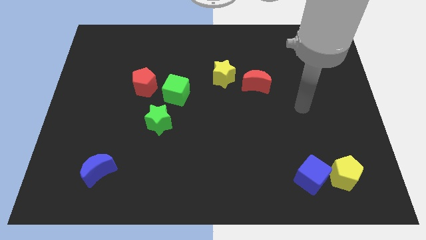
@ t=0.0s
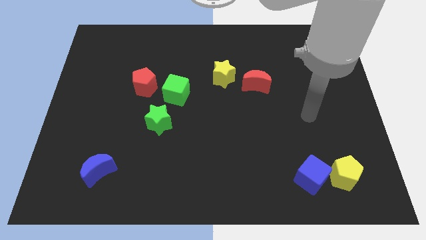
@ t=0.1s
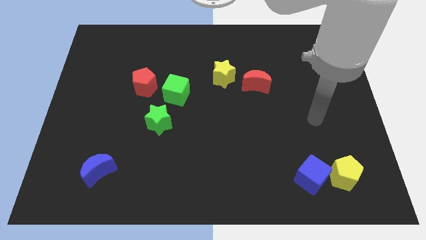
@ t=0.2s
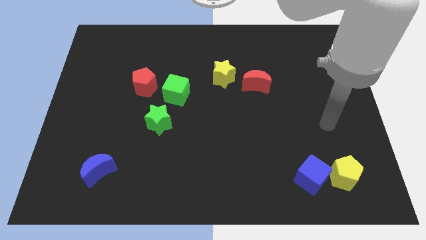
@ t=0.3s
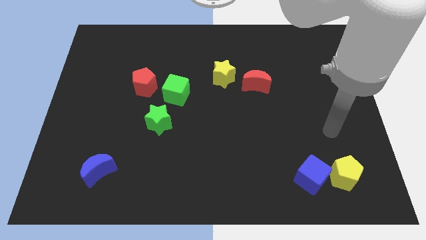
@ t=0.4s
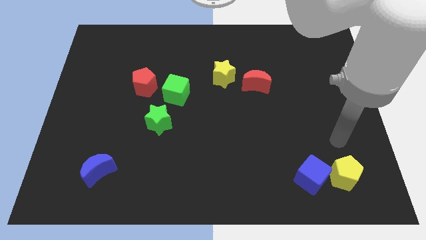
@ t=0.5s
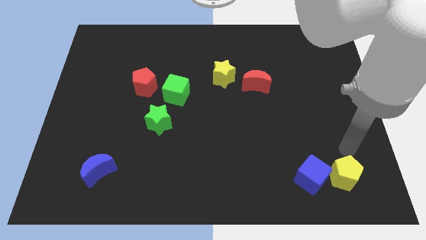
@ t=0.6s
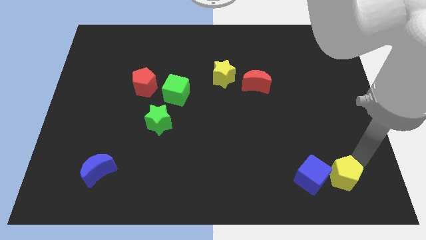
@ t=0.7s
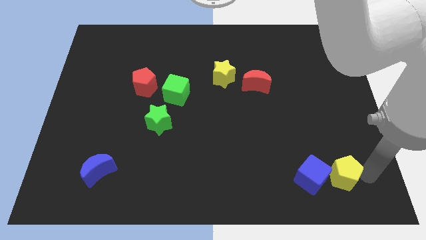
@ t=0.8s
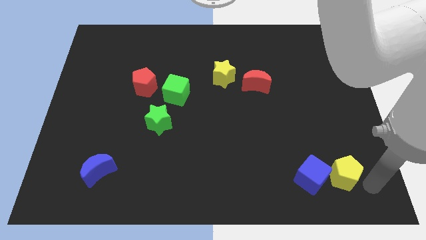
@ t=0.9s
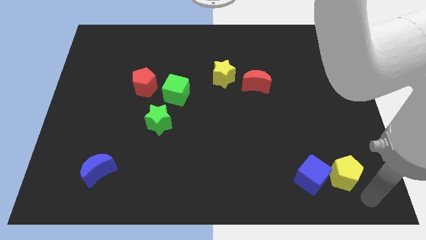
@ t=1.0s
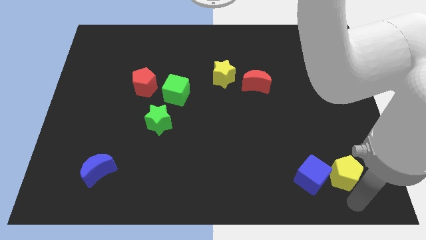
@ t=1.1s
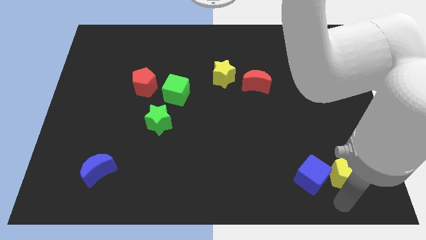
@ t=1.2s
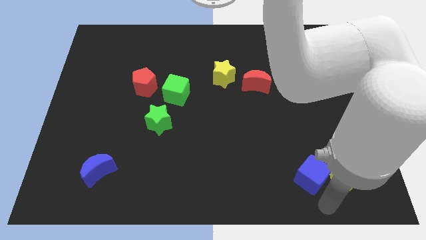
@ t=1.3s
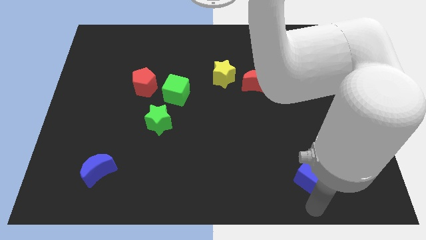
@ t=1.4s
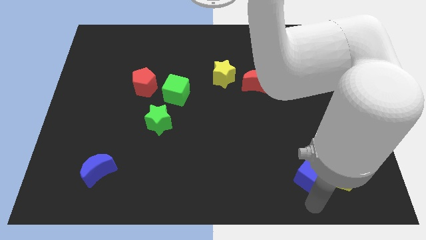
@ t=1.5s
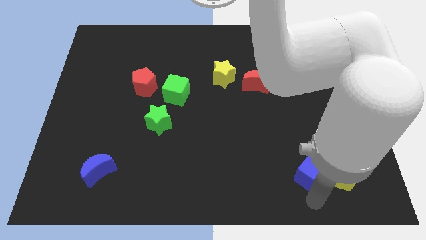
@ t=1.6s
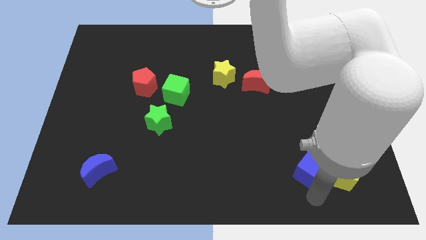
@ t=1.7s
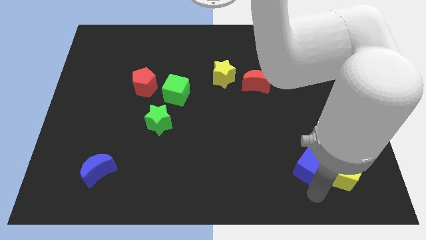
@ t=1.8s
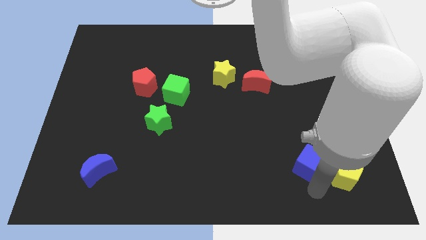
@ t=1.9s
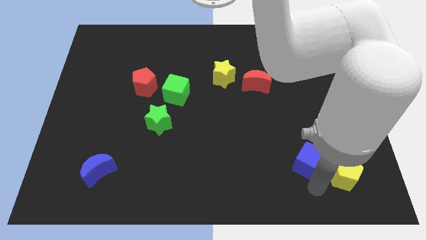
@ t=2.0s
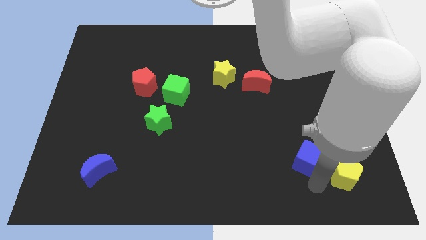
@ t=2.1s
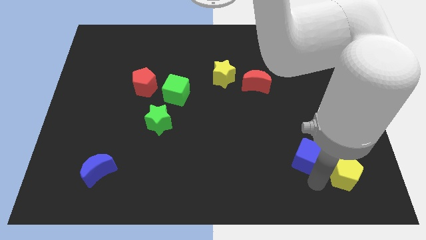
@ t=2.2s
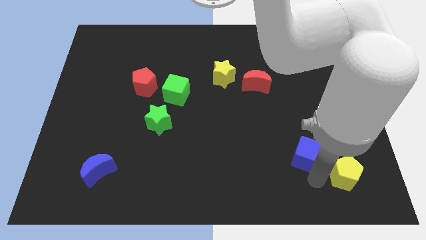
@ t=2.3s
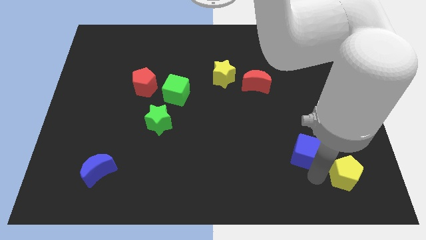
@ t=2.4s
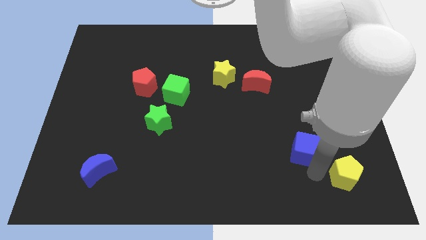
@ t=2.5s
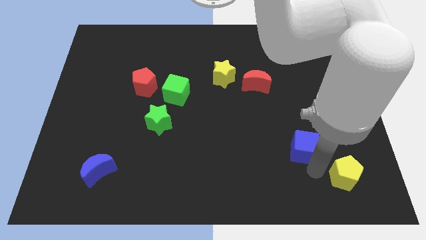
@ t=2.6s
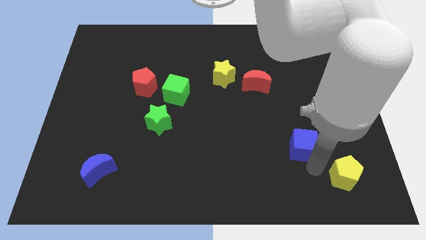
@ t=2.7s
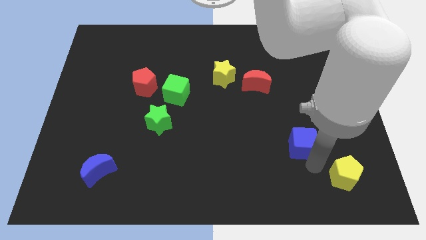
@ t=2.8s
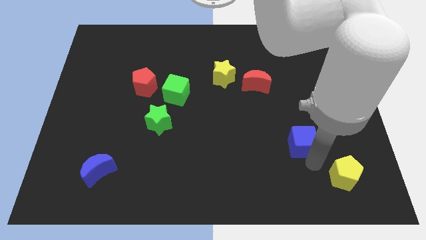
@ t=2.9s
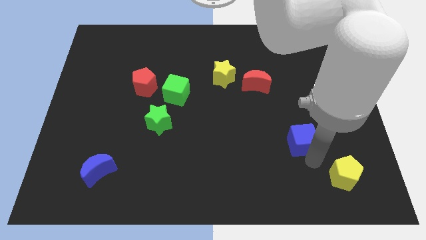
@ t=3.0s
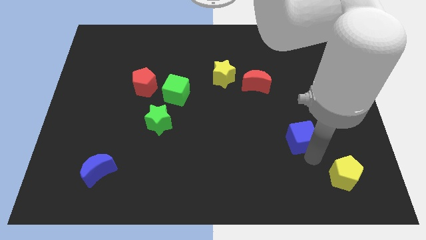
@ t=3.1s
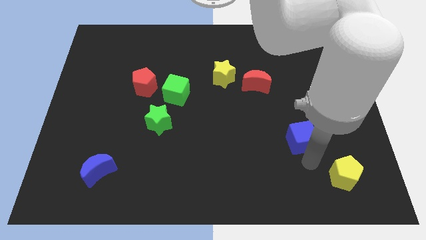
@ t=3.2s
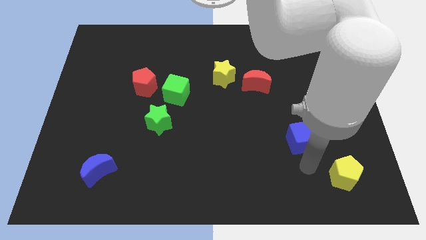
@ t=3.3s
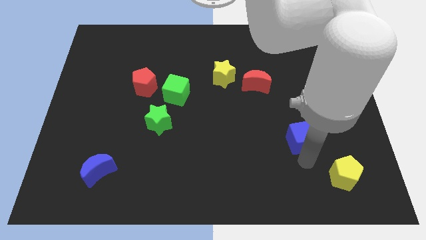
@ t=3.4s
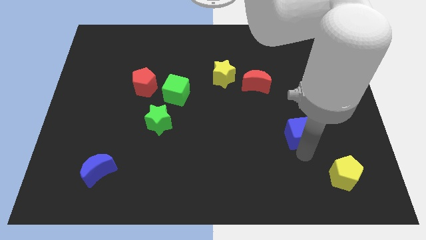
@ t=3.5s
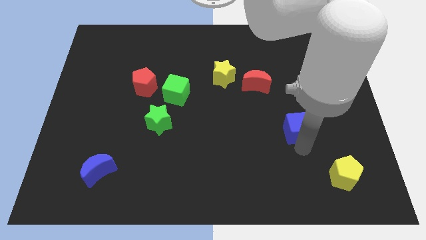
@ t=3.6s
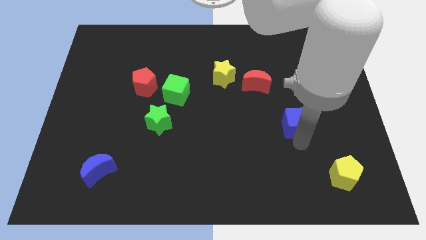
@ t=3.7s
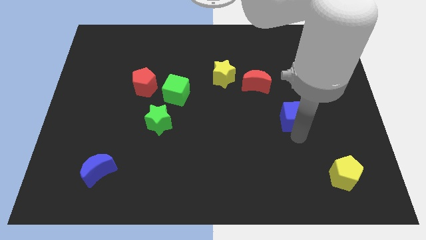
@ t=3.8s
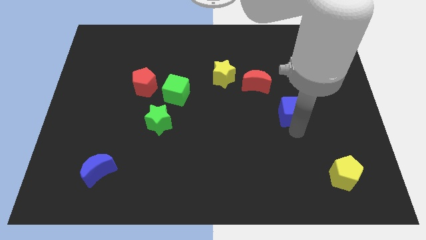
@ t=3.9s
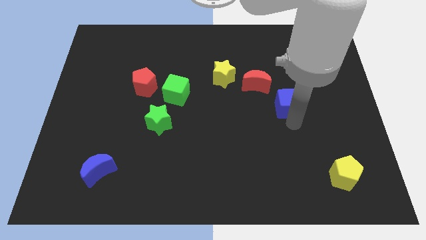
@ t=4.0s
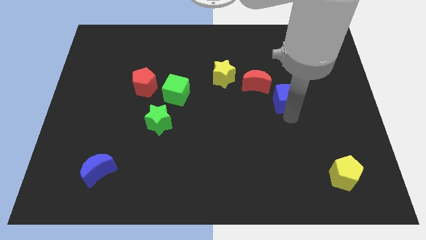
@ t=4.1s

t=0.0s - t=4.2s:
push the blue cube upwards

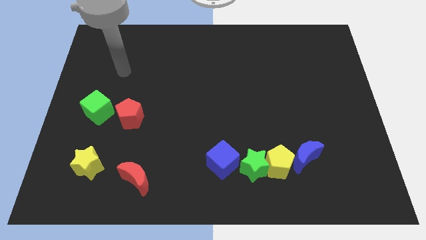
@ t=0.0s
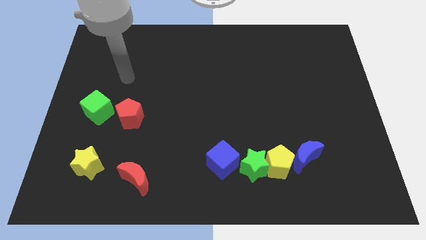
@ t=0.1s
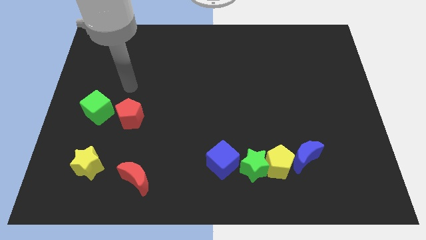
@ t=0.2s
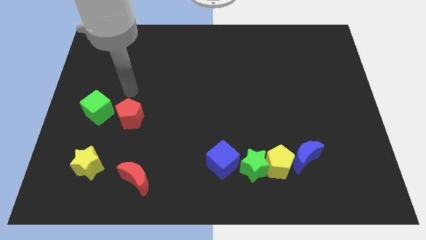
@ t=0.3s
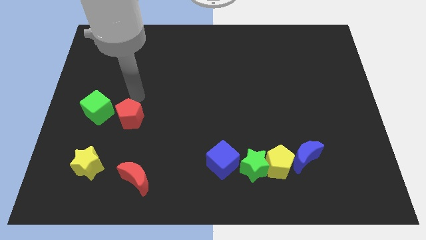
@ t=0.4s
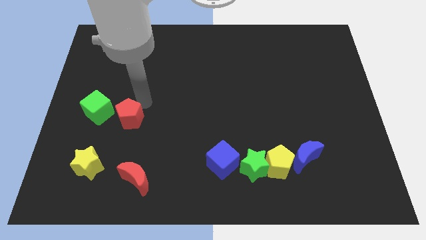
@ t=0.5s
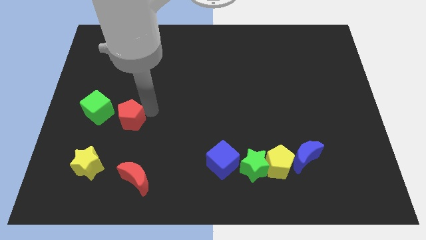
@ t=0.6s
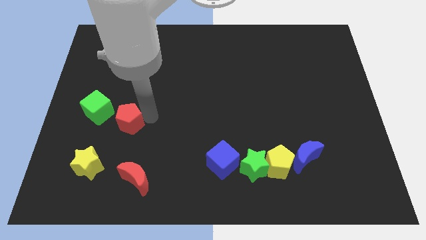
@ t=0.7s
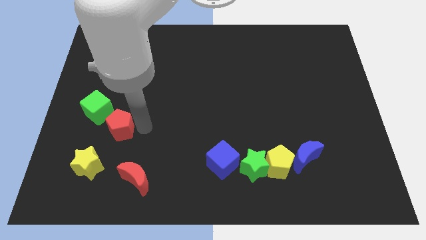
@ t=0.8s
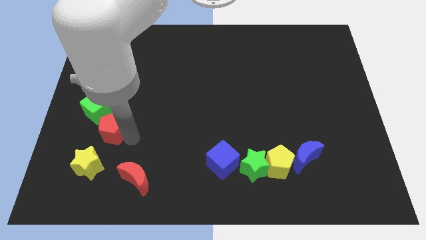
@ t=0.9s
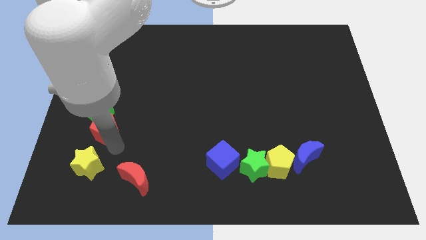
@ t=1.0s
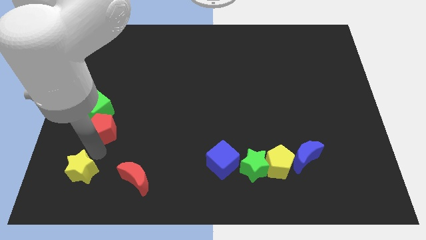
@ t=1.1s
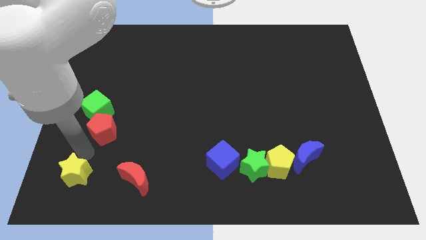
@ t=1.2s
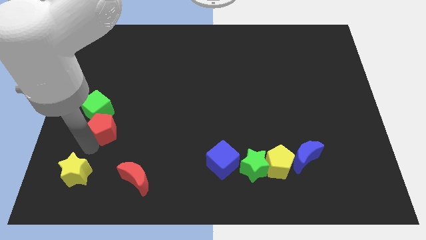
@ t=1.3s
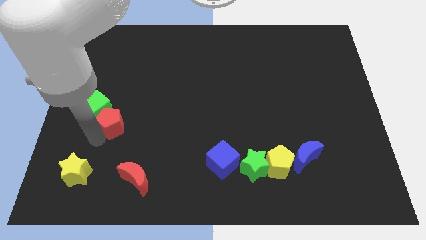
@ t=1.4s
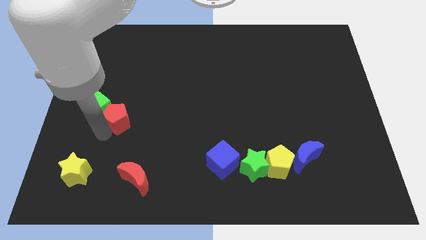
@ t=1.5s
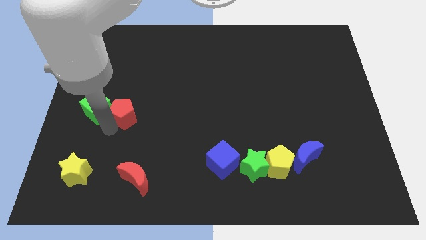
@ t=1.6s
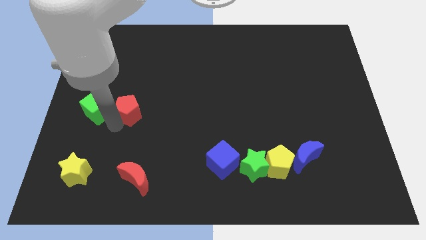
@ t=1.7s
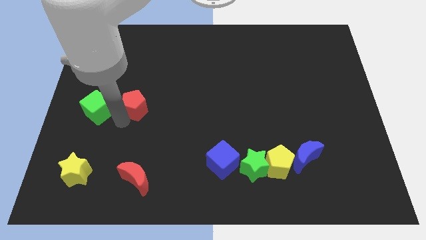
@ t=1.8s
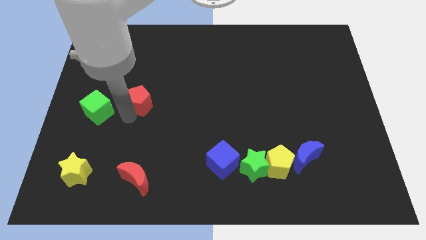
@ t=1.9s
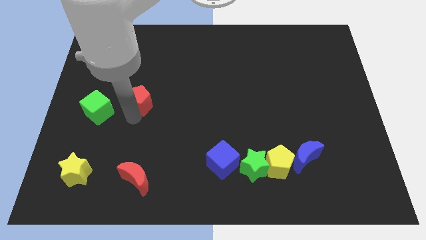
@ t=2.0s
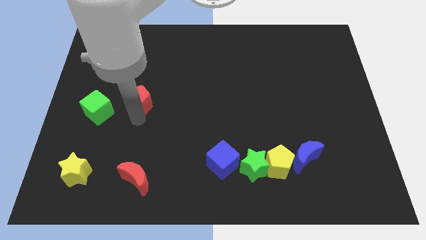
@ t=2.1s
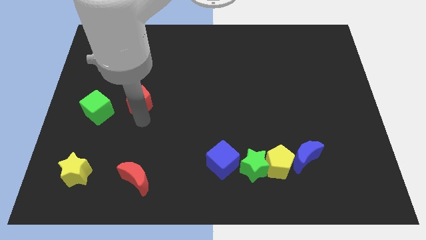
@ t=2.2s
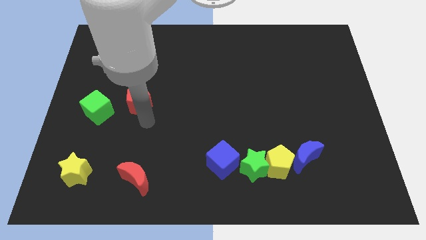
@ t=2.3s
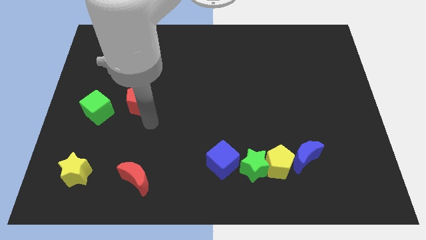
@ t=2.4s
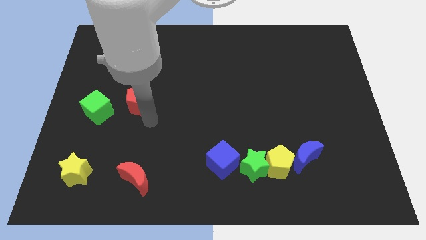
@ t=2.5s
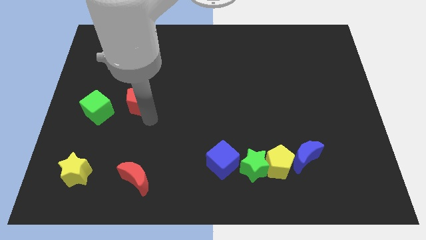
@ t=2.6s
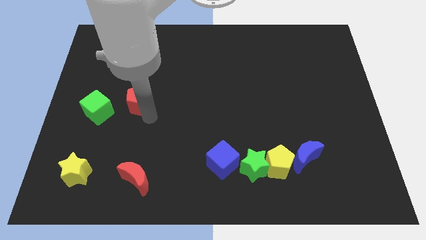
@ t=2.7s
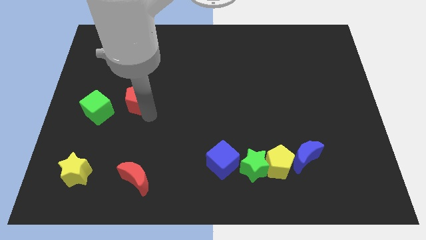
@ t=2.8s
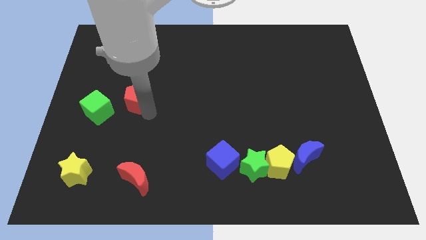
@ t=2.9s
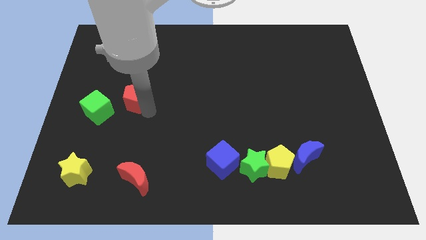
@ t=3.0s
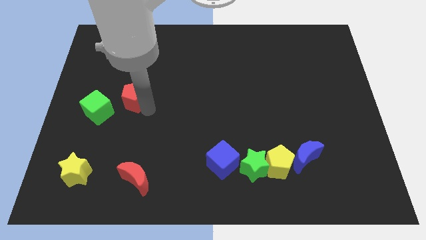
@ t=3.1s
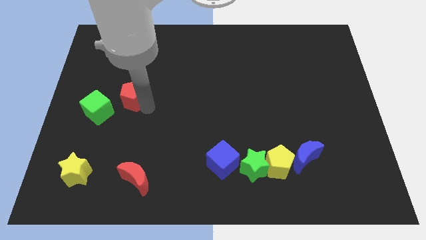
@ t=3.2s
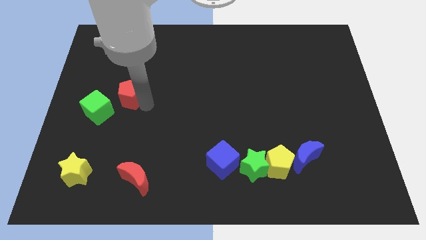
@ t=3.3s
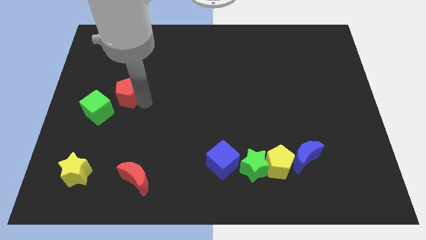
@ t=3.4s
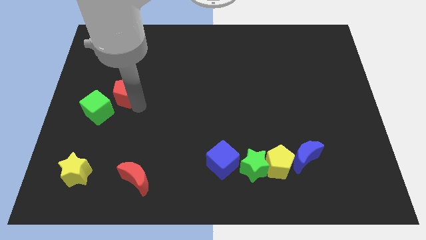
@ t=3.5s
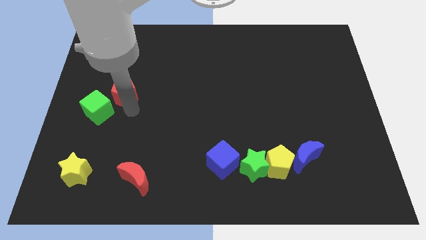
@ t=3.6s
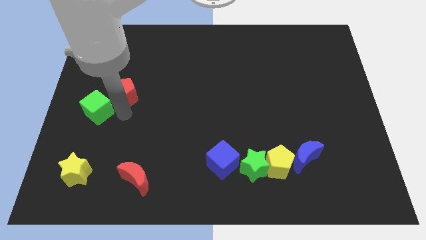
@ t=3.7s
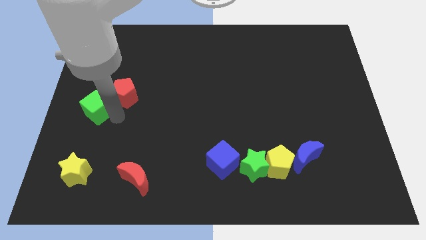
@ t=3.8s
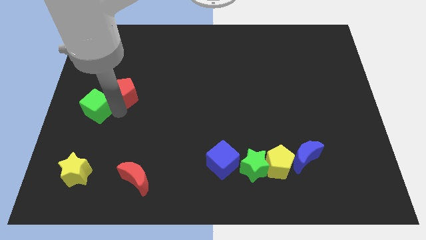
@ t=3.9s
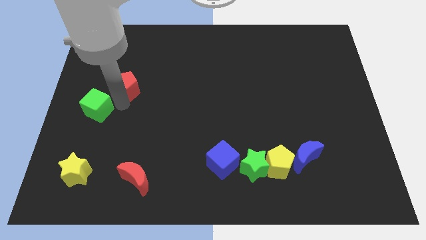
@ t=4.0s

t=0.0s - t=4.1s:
slide the red pentagon upwards slightly
